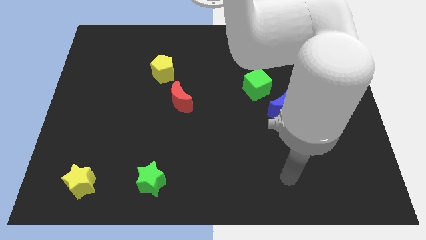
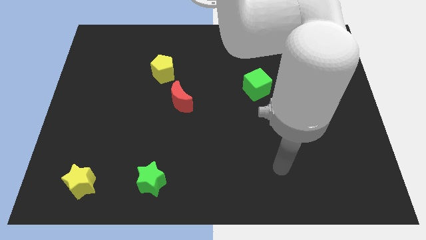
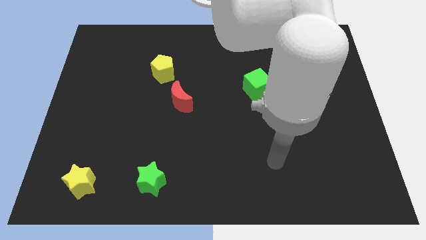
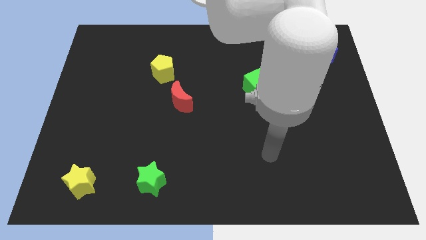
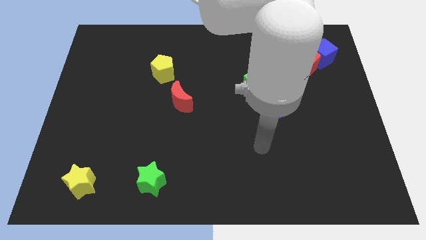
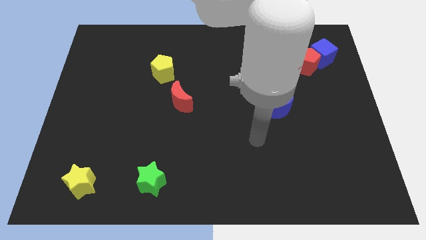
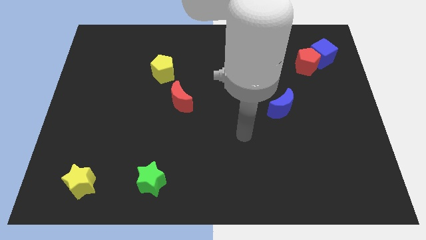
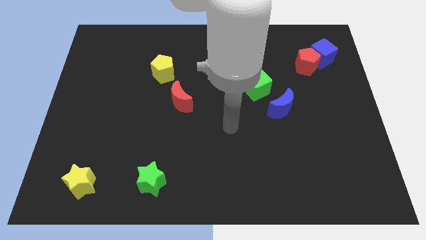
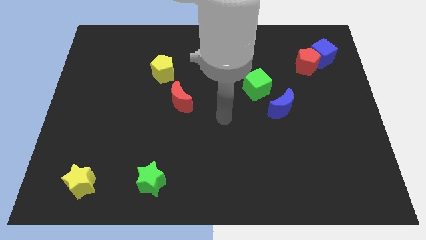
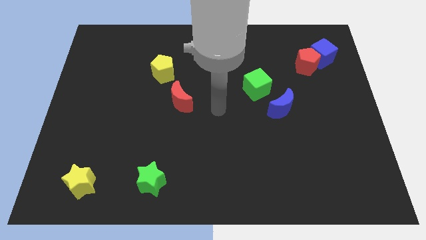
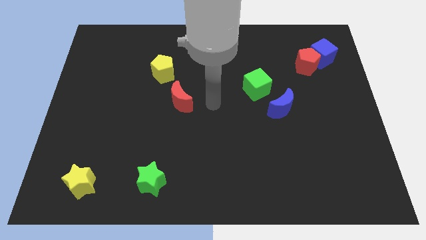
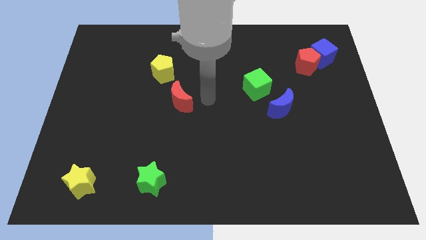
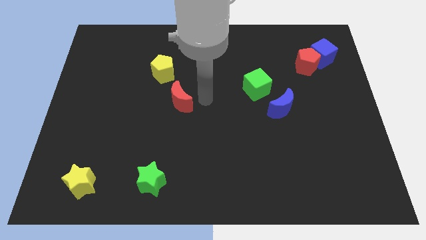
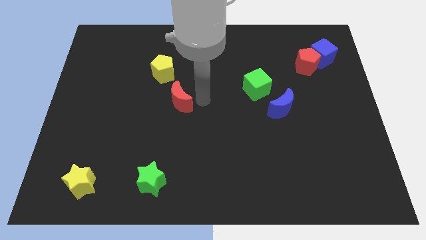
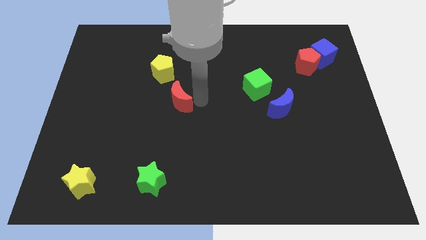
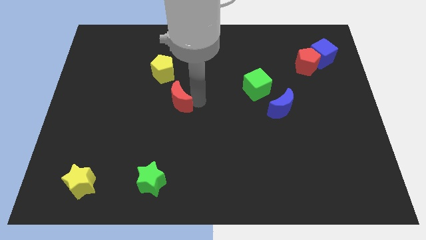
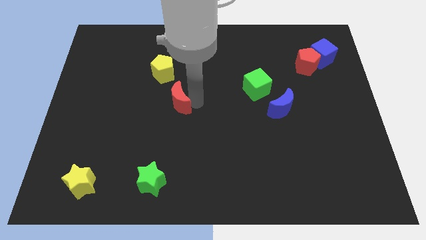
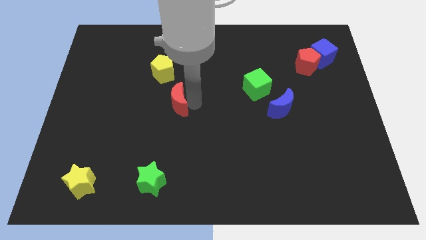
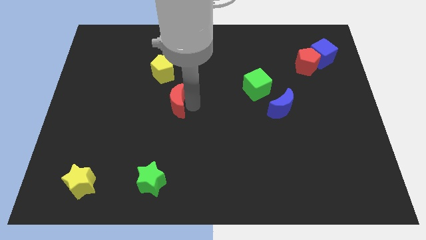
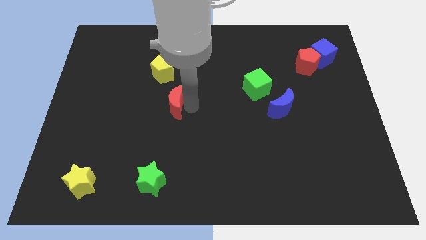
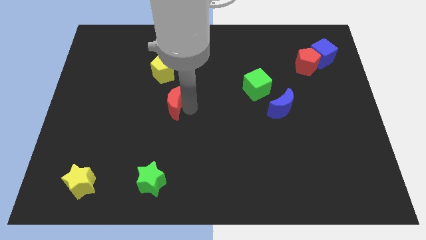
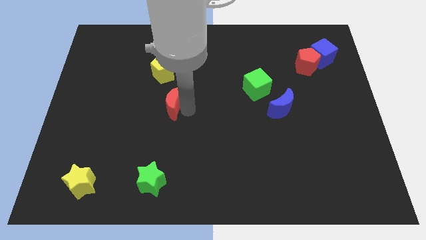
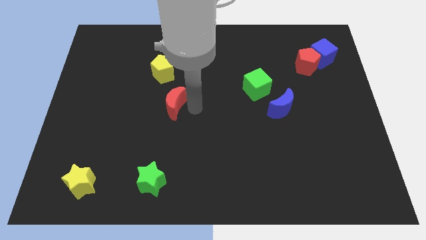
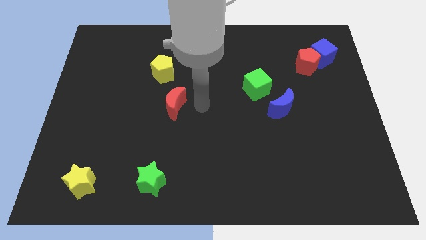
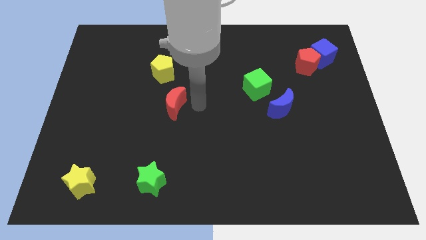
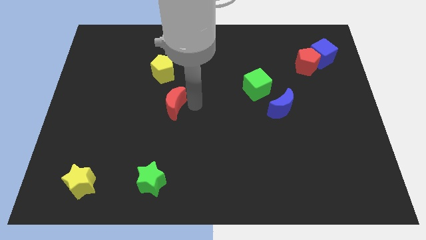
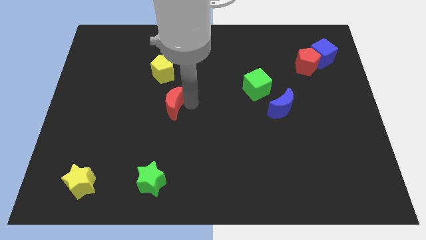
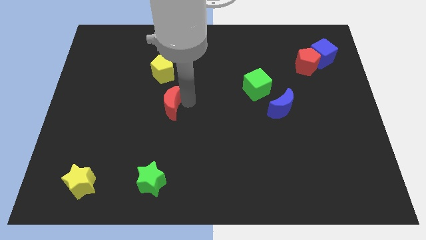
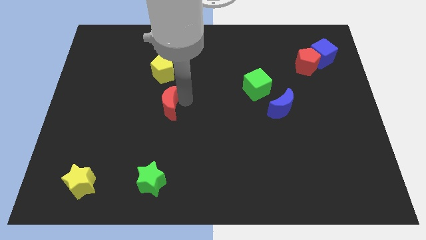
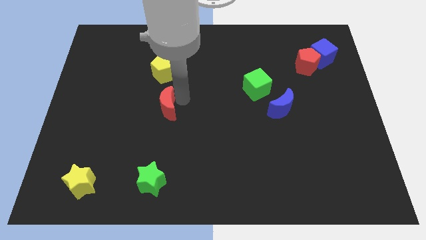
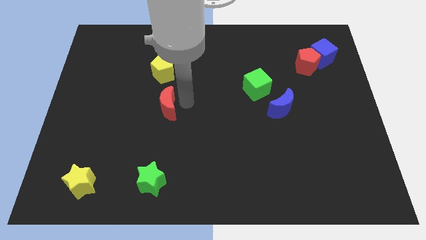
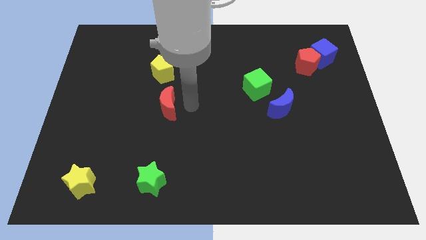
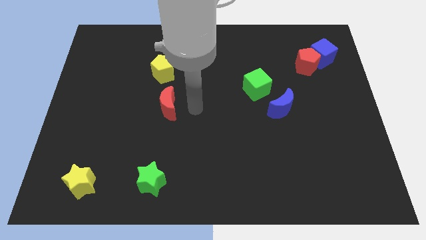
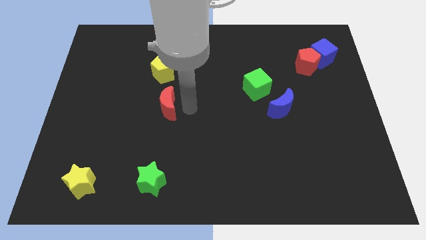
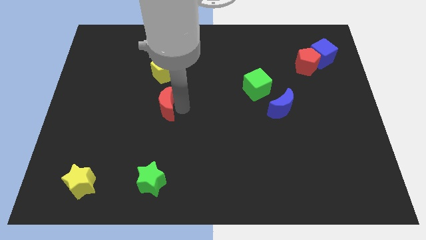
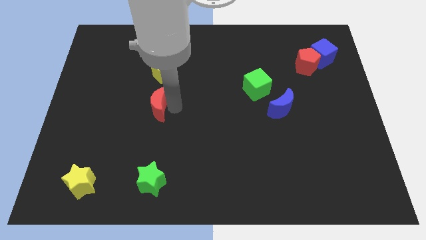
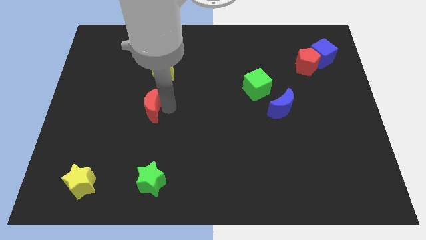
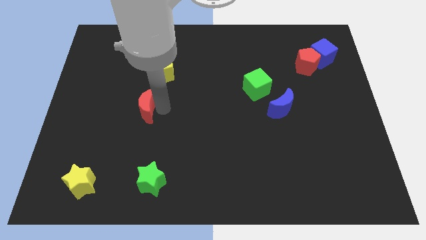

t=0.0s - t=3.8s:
push the red moon a little bit to the left

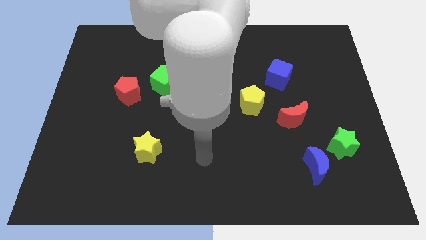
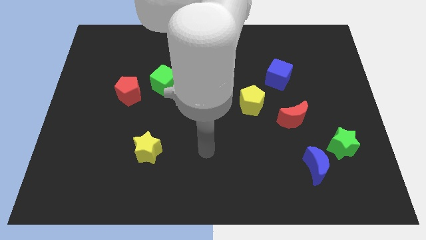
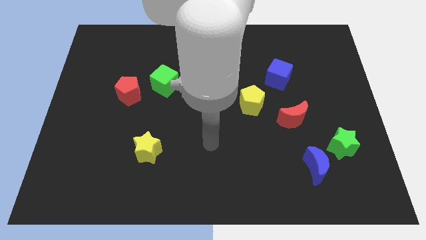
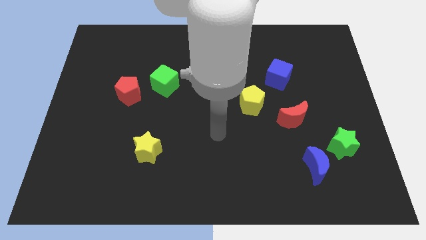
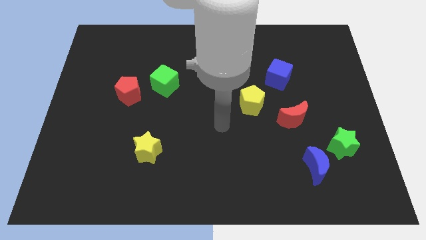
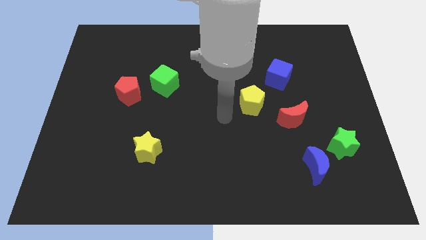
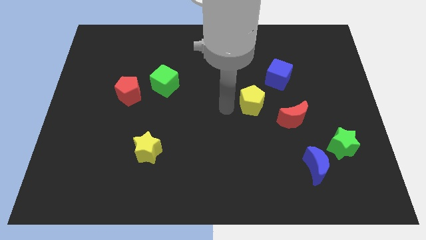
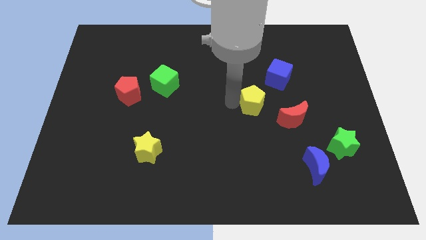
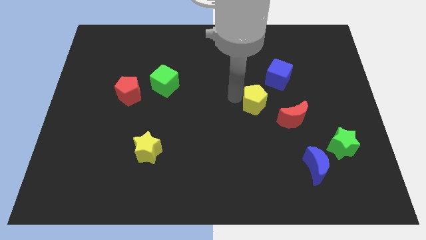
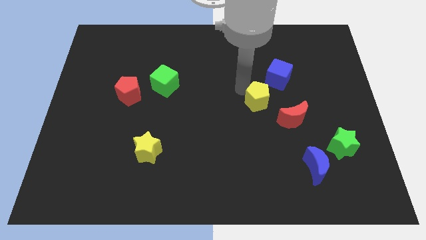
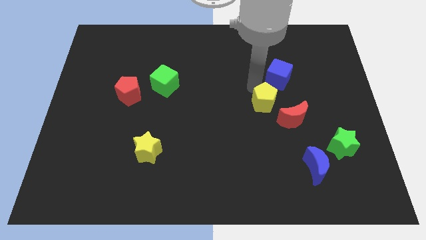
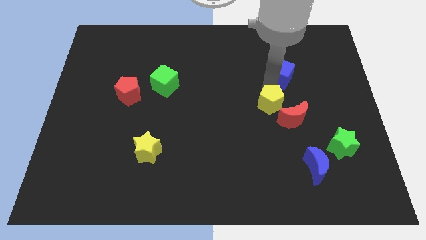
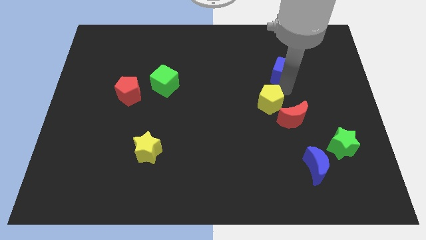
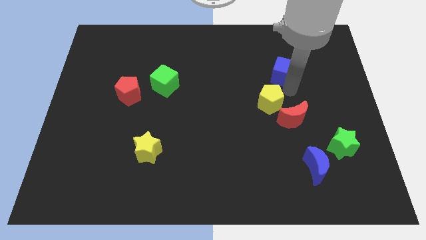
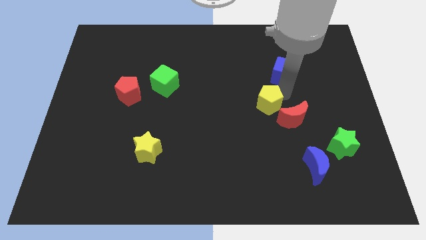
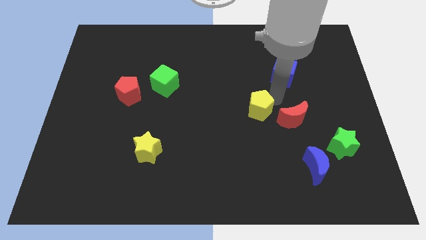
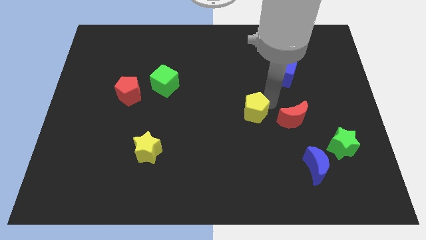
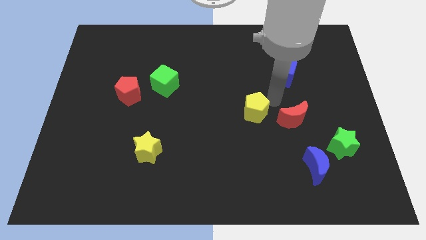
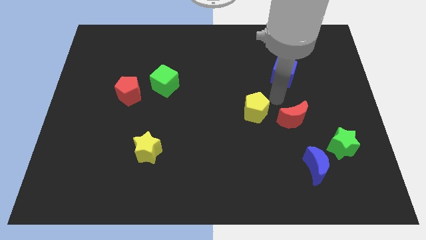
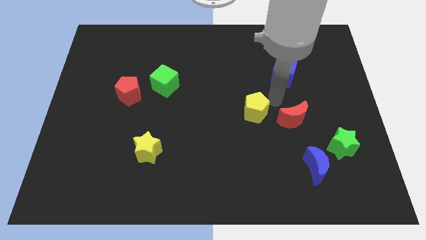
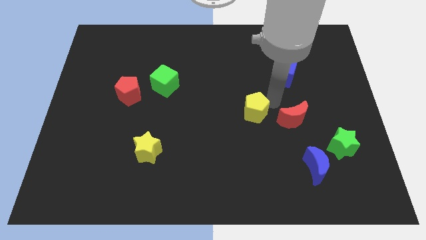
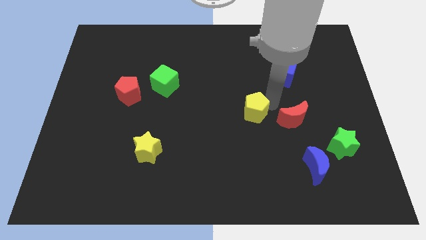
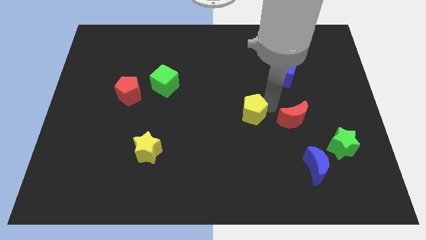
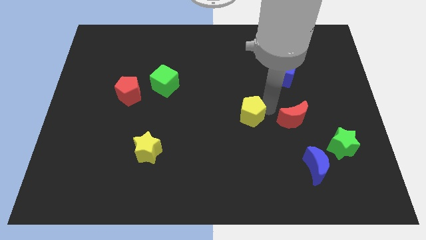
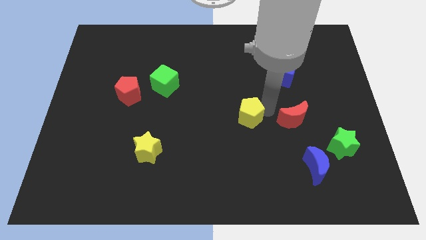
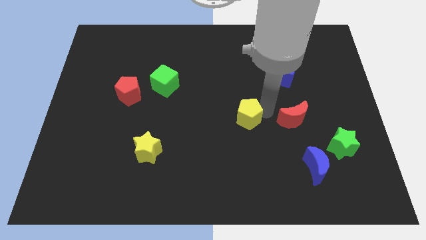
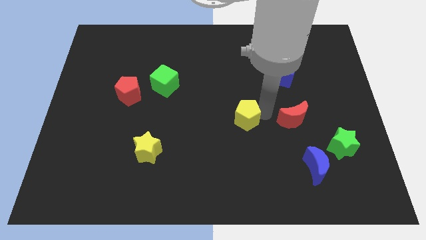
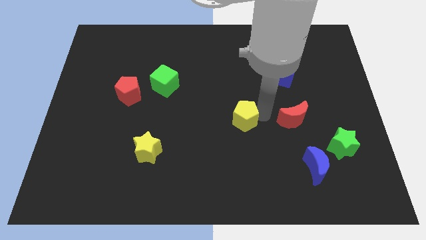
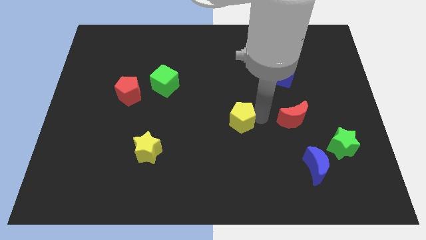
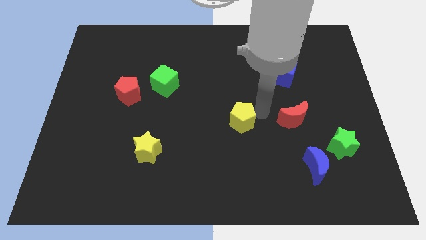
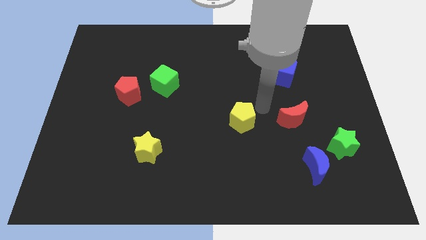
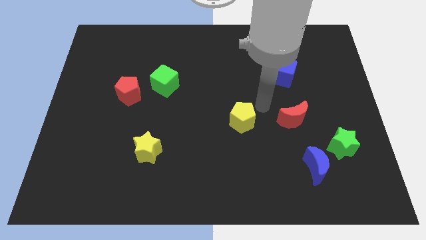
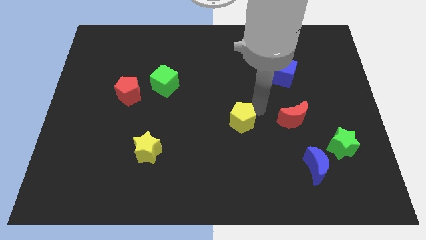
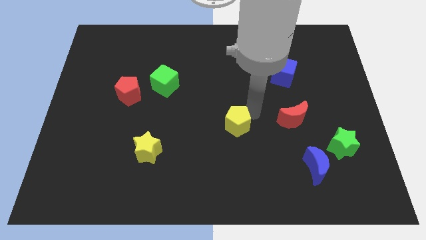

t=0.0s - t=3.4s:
move the yellow pentagon a little bit down and left

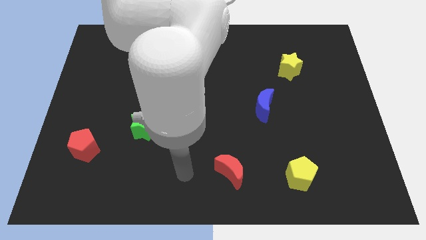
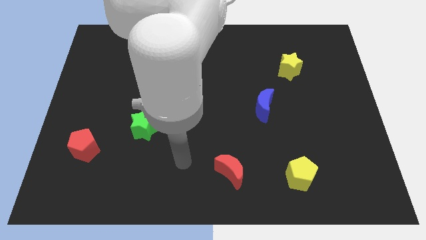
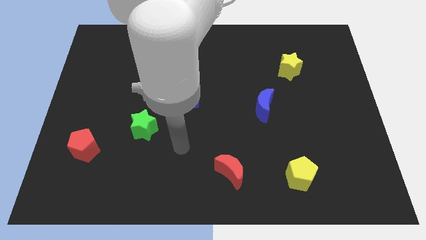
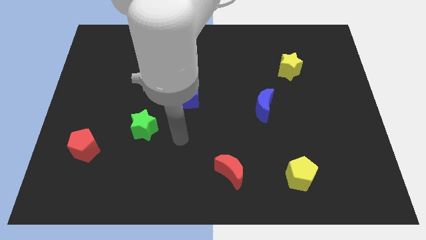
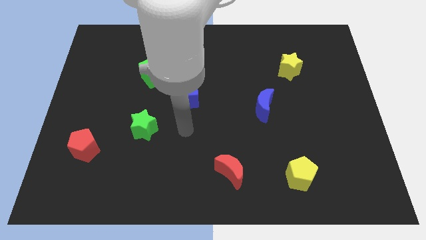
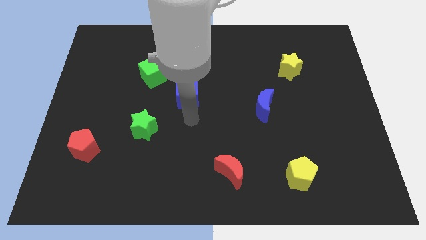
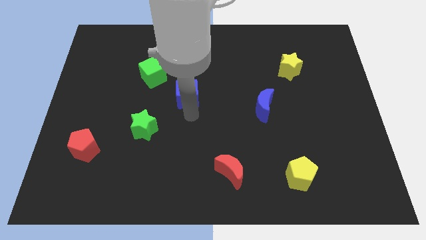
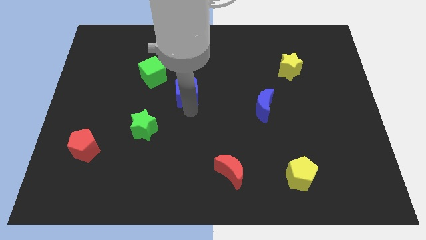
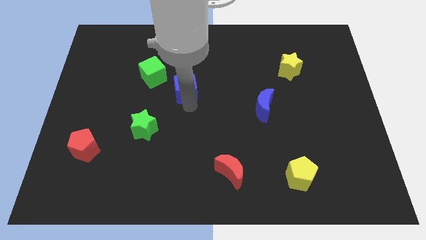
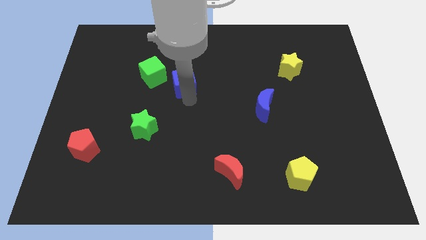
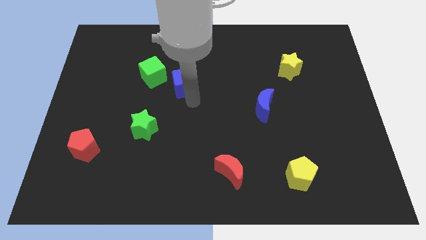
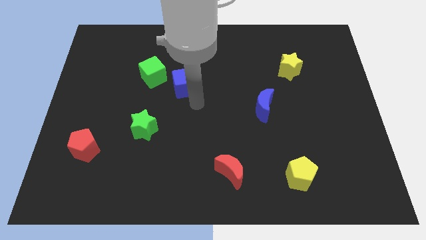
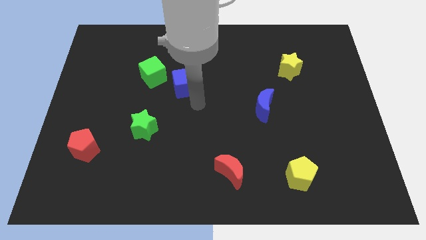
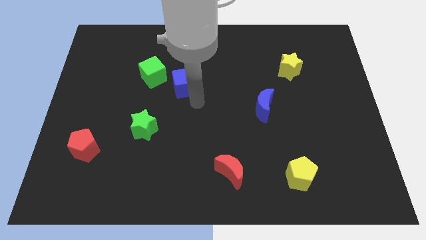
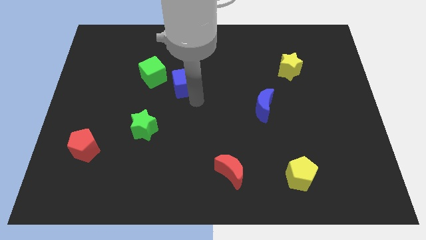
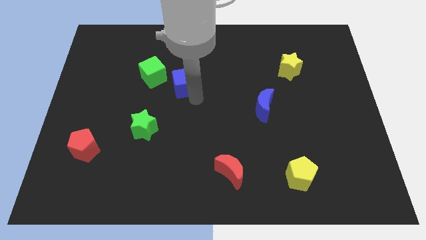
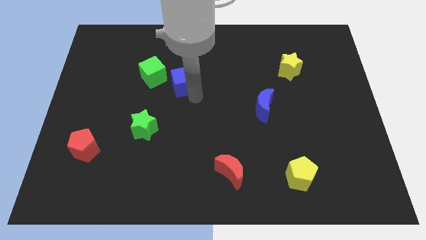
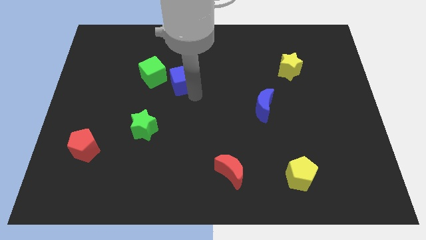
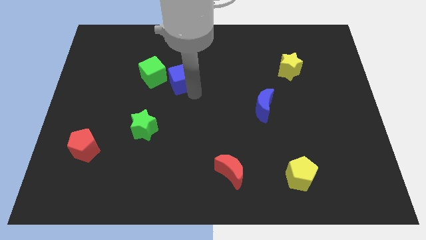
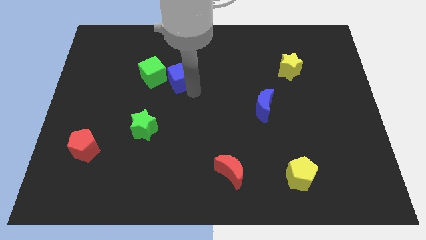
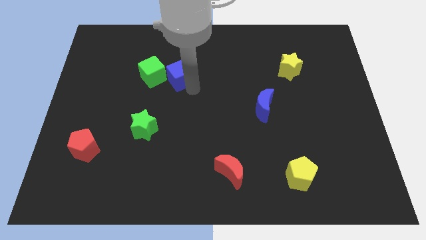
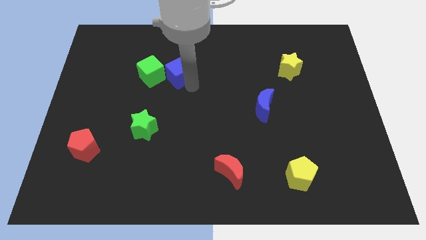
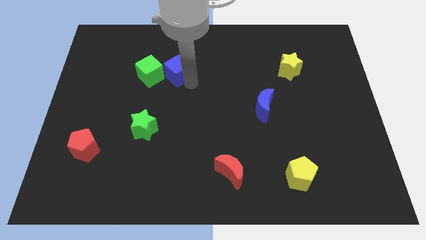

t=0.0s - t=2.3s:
slide the blue cube upwards and to the left diagonally somewhat
